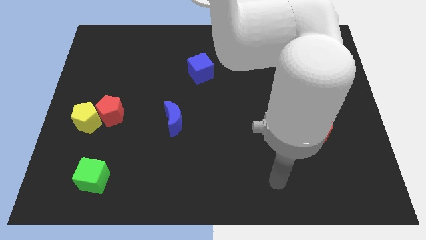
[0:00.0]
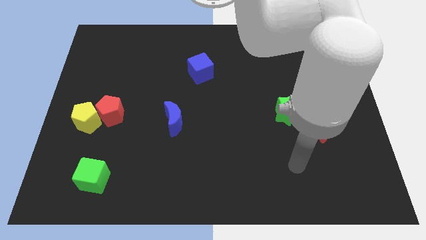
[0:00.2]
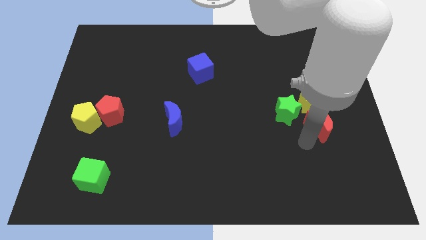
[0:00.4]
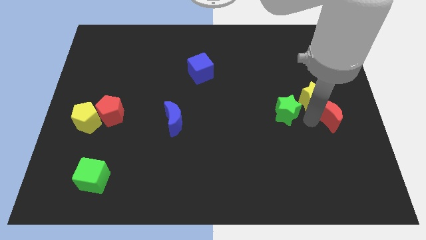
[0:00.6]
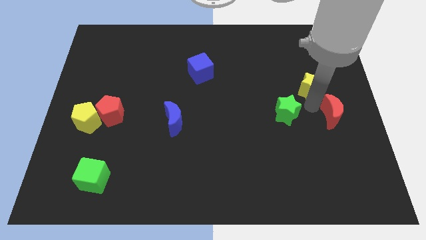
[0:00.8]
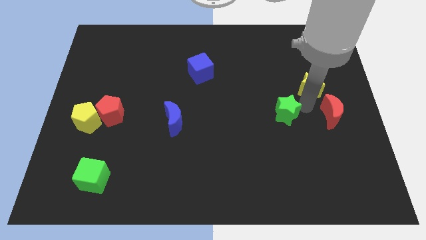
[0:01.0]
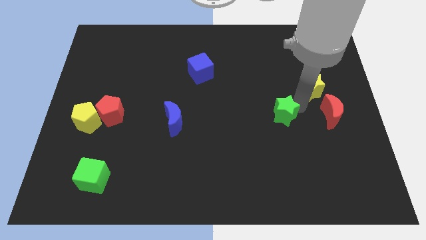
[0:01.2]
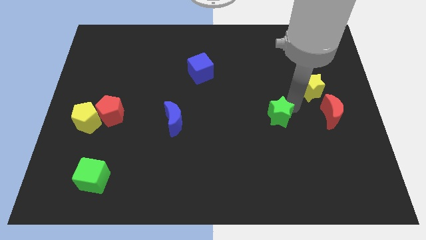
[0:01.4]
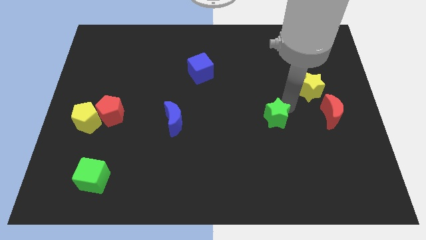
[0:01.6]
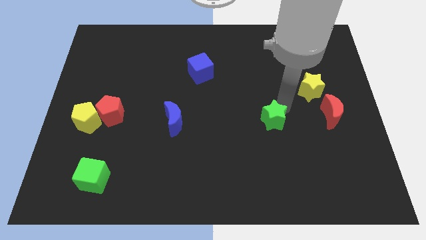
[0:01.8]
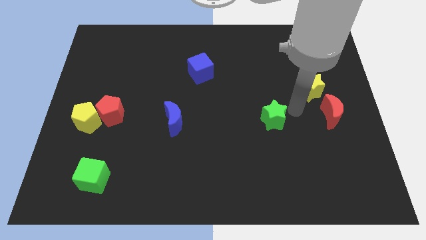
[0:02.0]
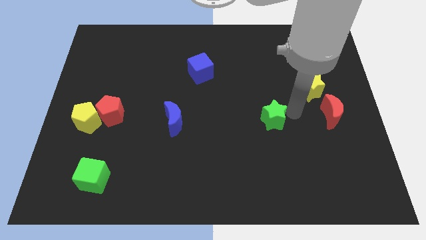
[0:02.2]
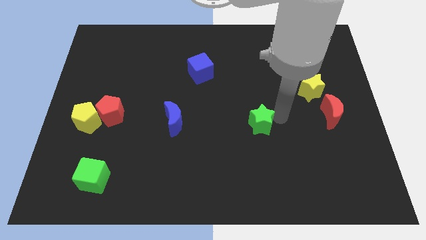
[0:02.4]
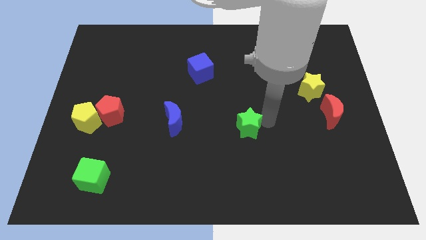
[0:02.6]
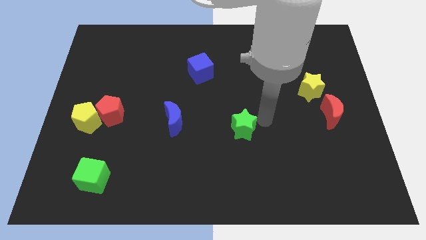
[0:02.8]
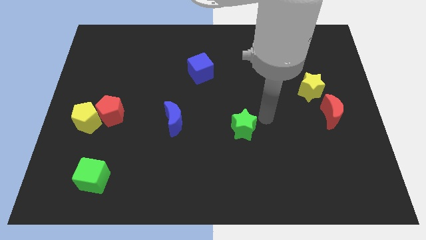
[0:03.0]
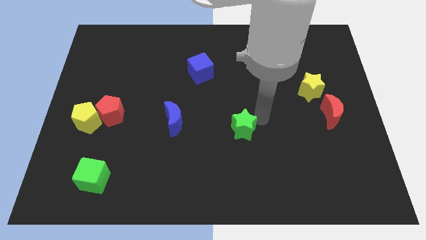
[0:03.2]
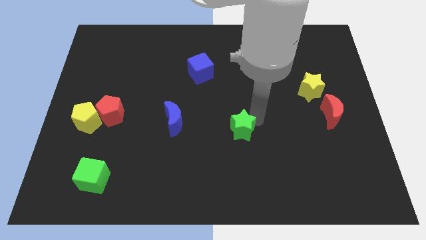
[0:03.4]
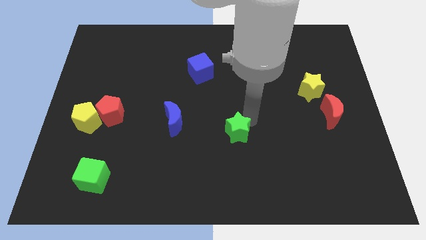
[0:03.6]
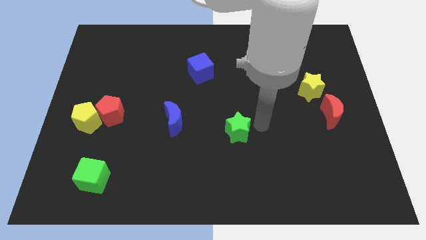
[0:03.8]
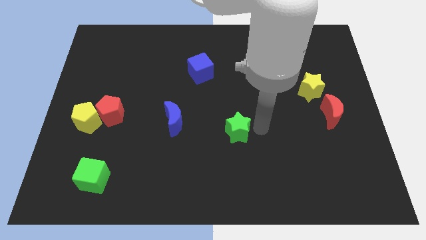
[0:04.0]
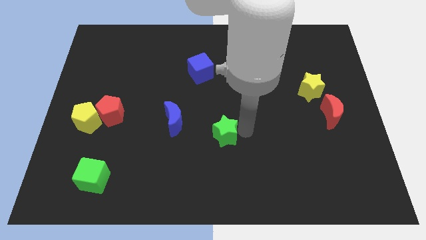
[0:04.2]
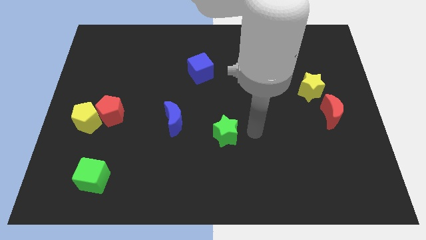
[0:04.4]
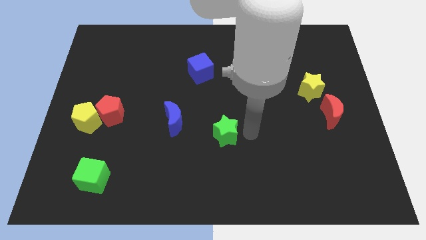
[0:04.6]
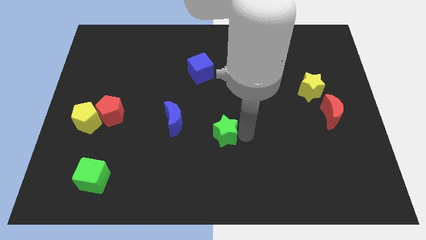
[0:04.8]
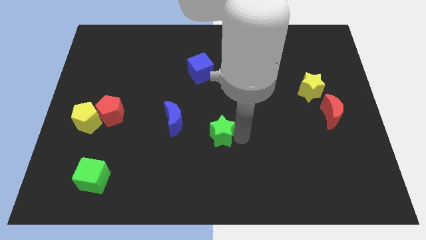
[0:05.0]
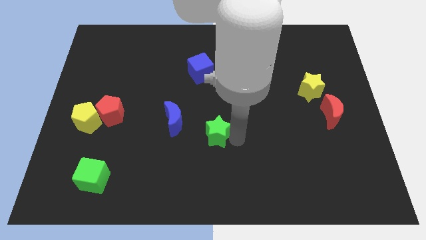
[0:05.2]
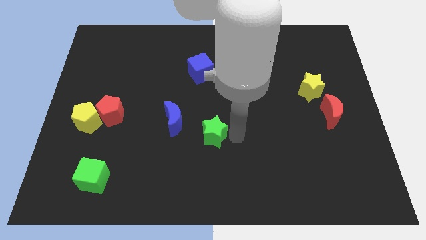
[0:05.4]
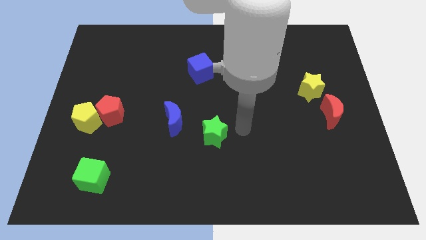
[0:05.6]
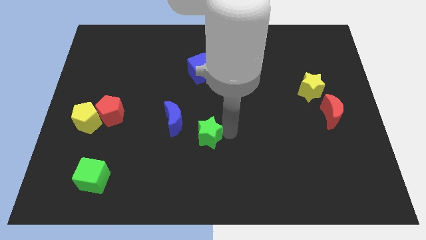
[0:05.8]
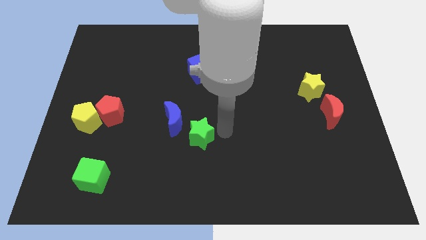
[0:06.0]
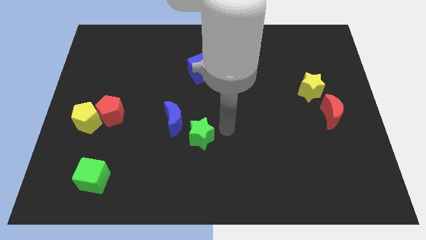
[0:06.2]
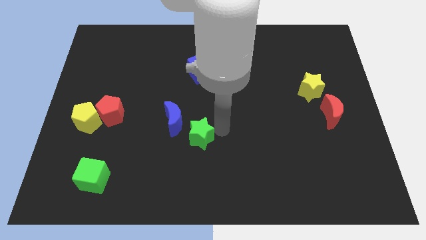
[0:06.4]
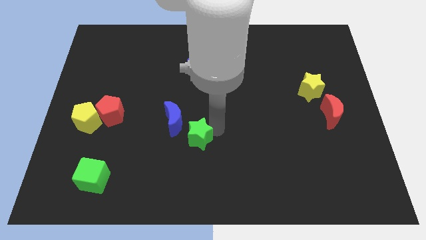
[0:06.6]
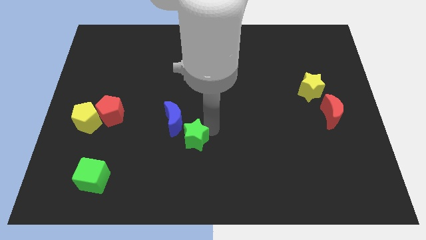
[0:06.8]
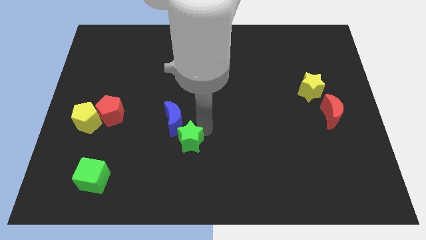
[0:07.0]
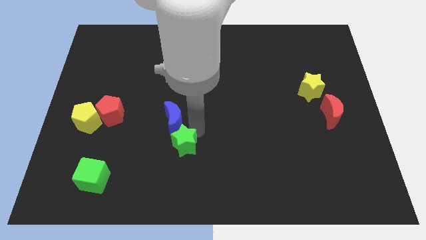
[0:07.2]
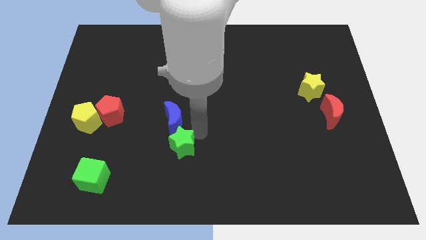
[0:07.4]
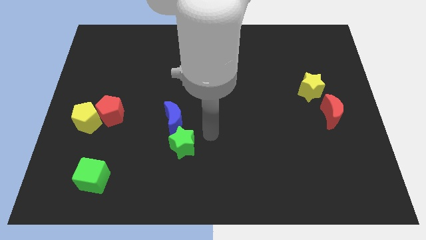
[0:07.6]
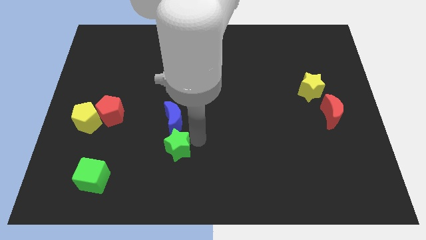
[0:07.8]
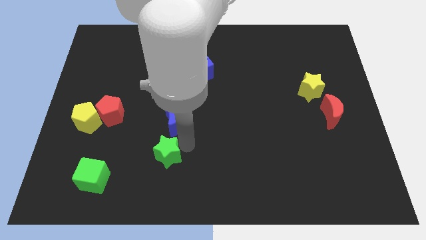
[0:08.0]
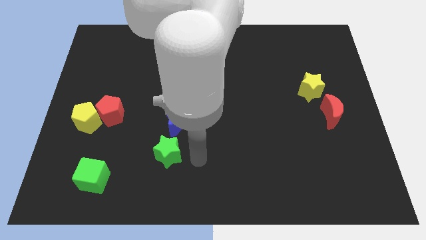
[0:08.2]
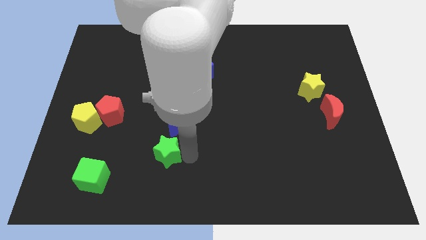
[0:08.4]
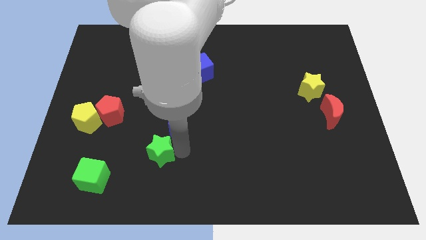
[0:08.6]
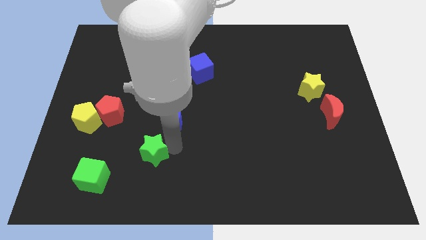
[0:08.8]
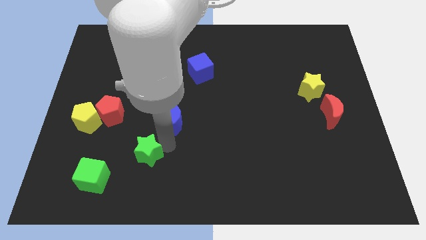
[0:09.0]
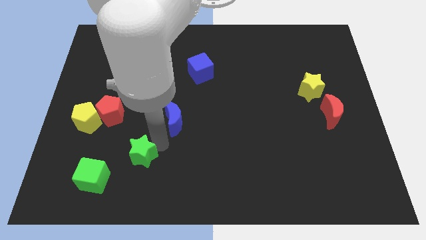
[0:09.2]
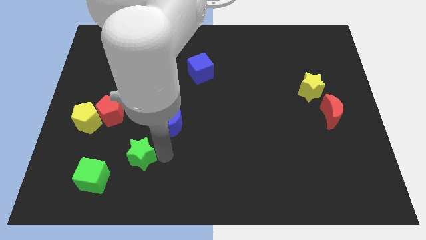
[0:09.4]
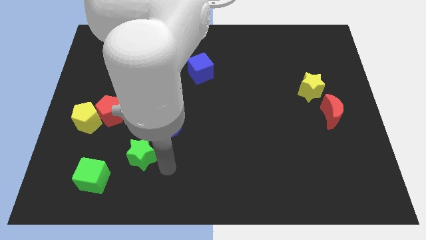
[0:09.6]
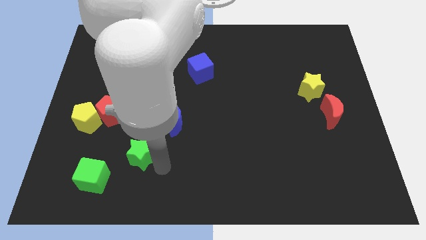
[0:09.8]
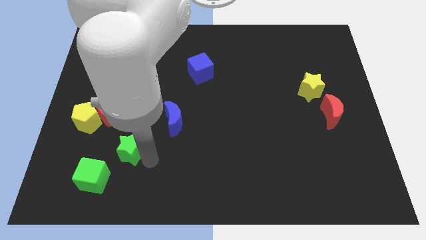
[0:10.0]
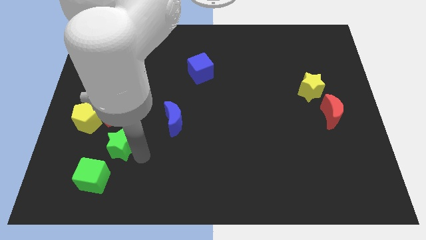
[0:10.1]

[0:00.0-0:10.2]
push the green star to the top side of the green cube

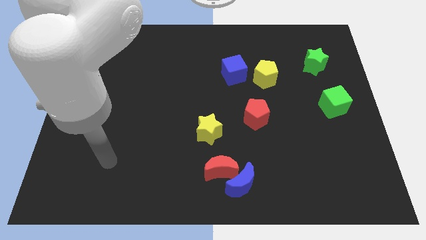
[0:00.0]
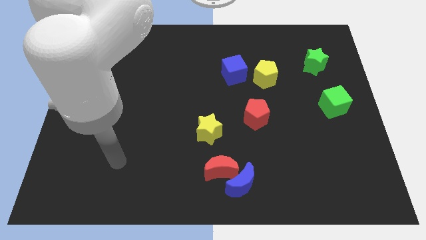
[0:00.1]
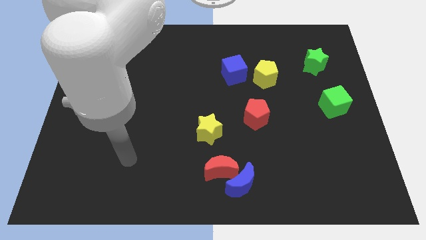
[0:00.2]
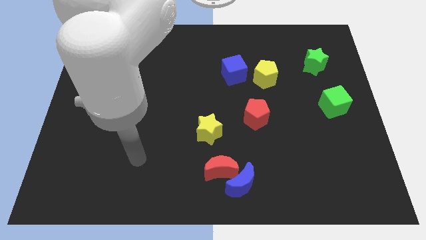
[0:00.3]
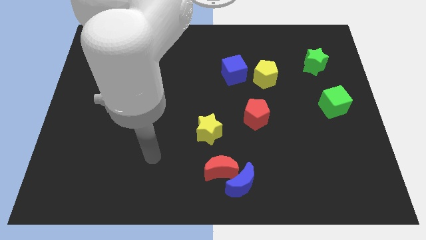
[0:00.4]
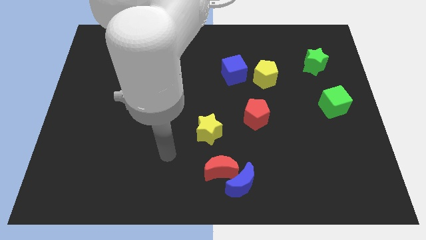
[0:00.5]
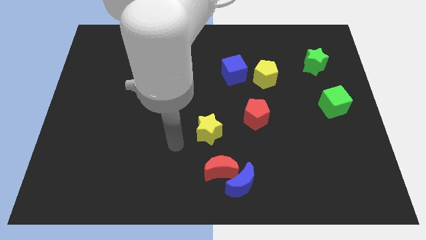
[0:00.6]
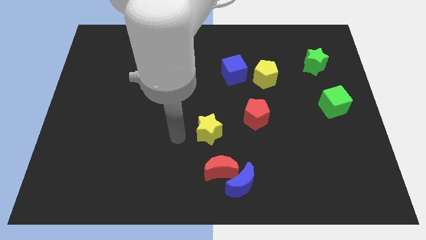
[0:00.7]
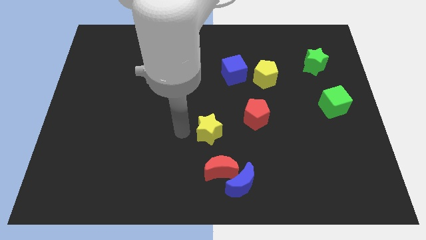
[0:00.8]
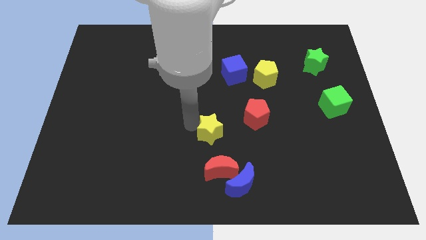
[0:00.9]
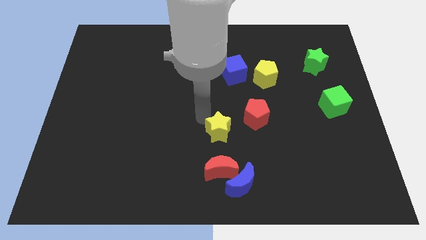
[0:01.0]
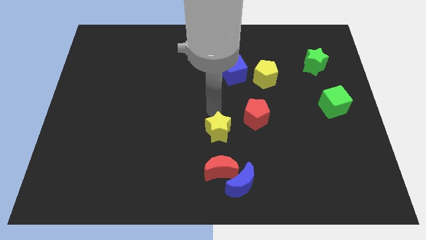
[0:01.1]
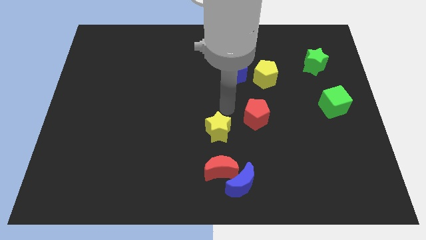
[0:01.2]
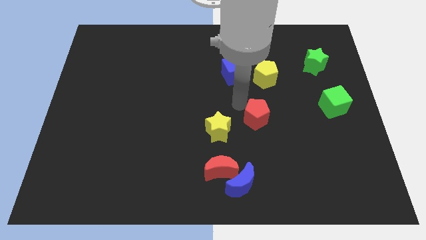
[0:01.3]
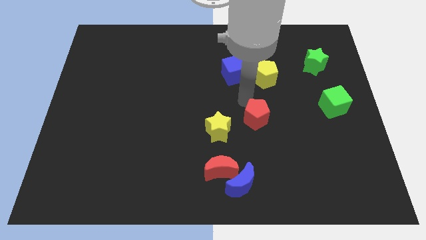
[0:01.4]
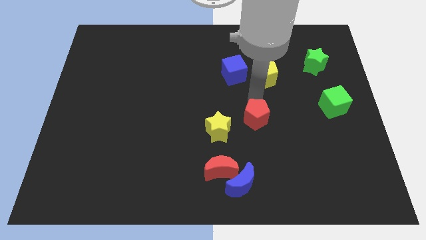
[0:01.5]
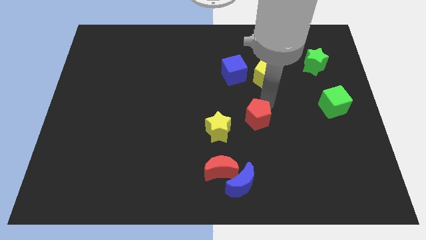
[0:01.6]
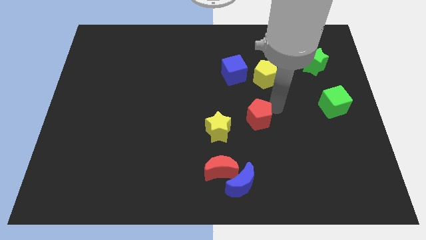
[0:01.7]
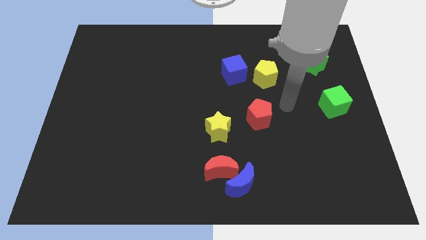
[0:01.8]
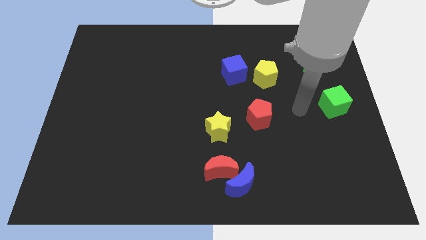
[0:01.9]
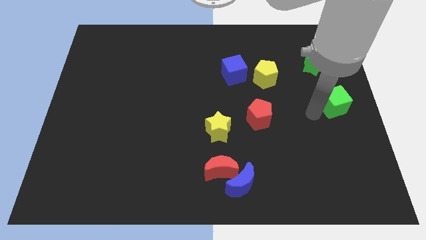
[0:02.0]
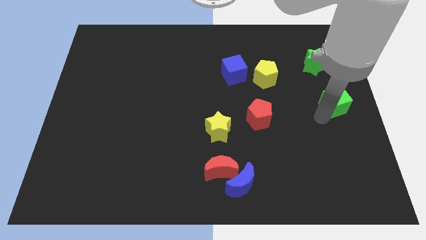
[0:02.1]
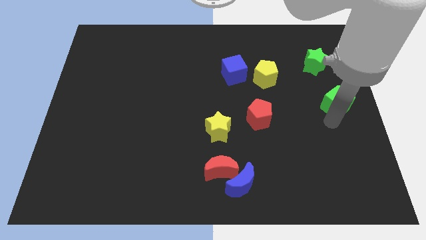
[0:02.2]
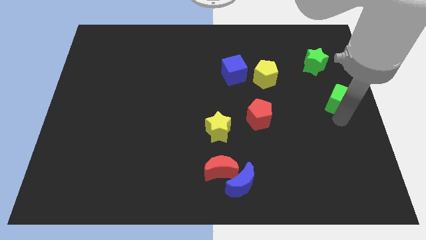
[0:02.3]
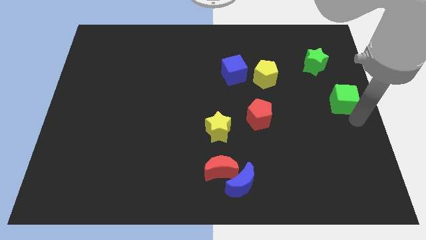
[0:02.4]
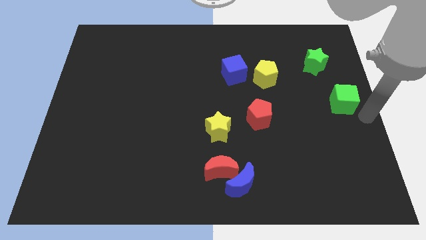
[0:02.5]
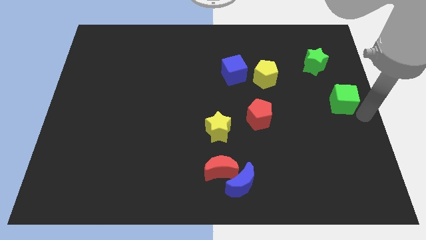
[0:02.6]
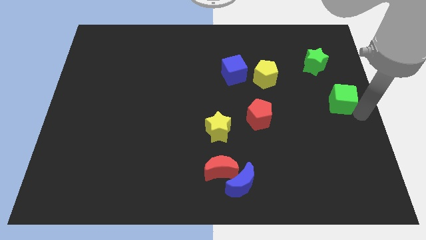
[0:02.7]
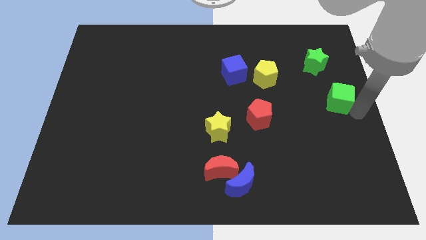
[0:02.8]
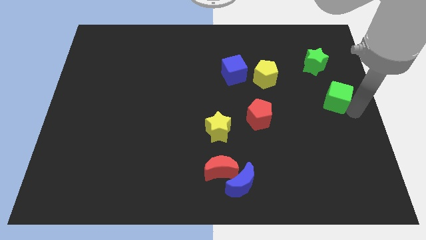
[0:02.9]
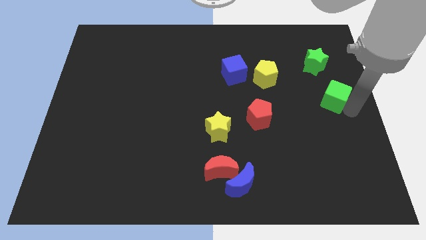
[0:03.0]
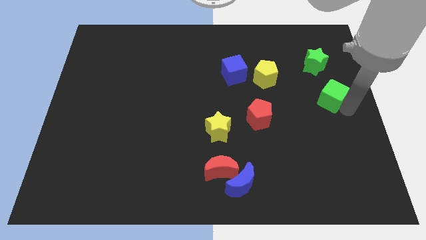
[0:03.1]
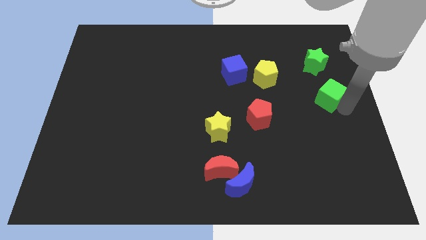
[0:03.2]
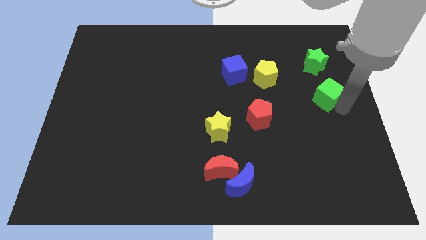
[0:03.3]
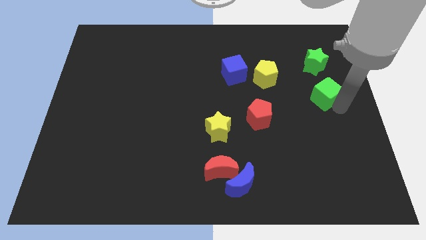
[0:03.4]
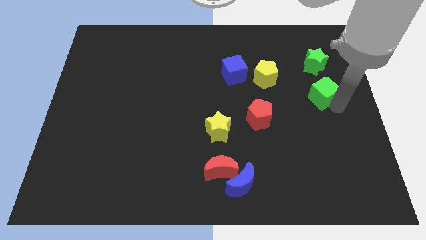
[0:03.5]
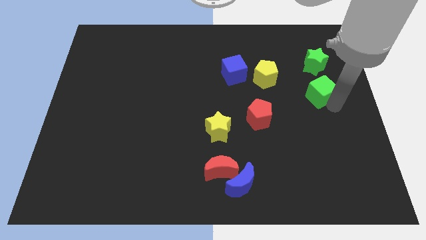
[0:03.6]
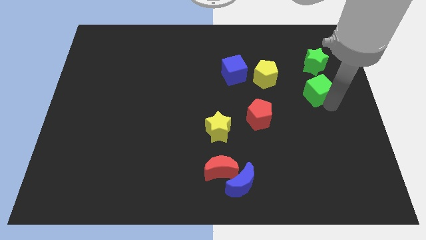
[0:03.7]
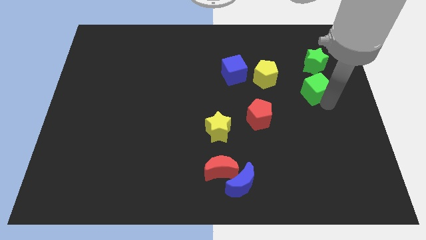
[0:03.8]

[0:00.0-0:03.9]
move the green cube to the right side of the yellow pentagon
